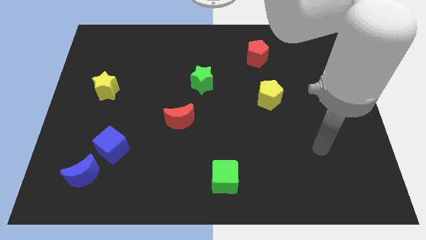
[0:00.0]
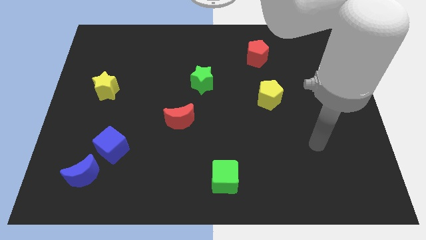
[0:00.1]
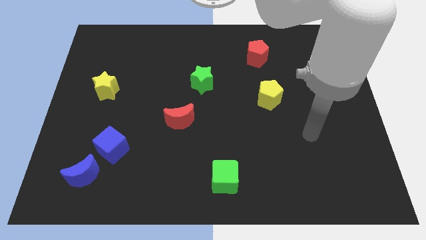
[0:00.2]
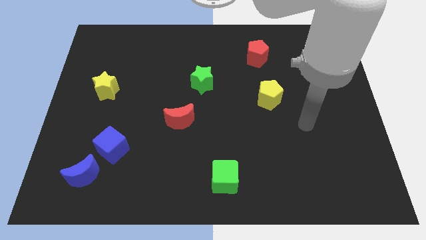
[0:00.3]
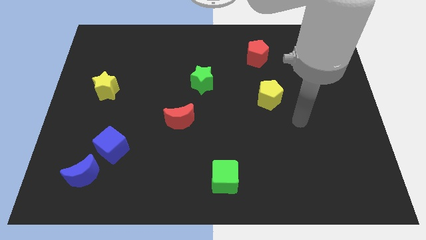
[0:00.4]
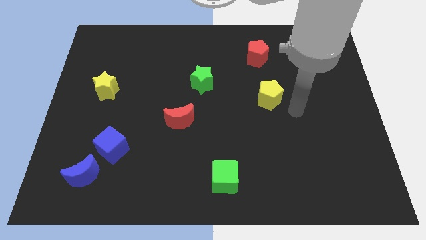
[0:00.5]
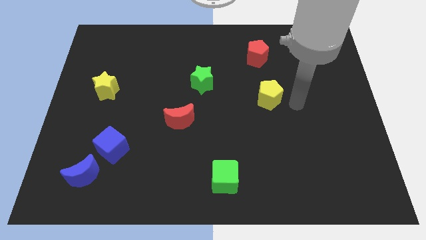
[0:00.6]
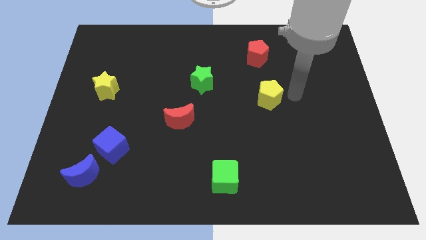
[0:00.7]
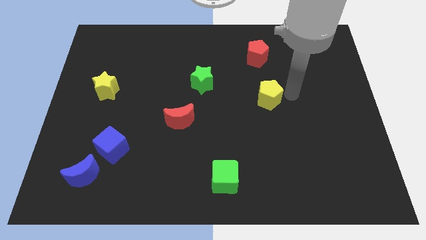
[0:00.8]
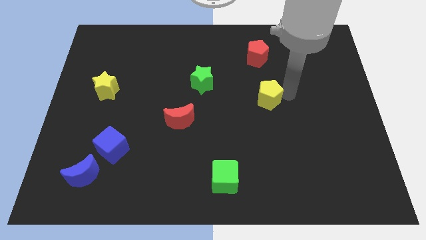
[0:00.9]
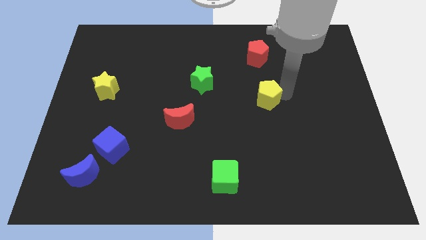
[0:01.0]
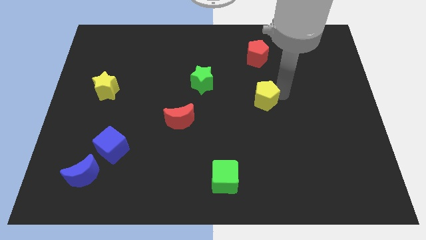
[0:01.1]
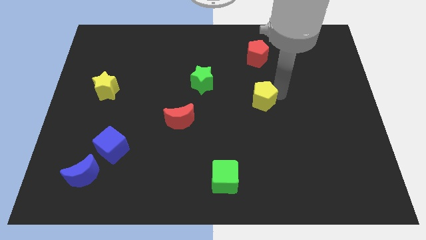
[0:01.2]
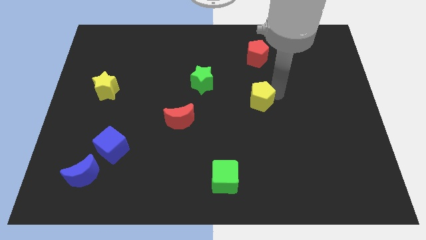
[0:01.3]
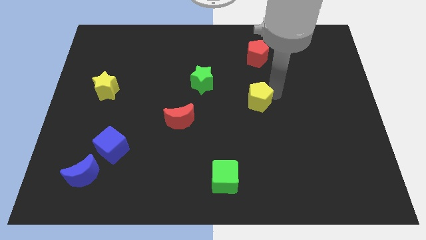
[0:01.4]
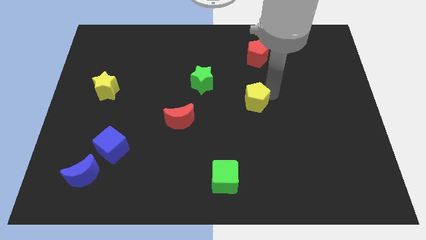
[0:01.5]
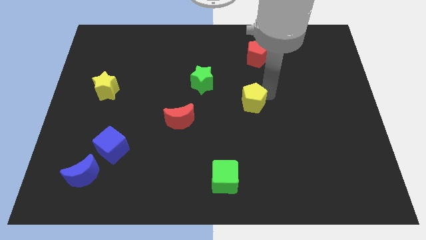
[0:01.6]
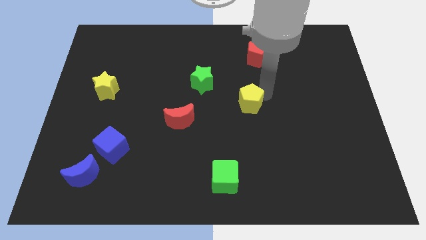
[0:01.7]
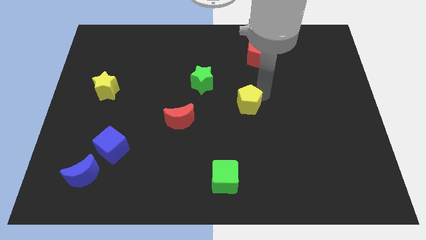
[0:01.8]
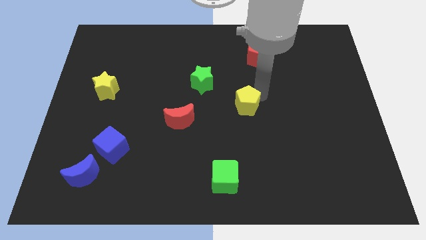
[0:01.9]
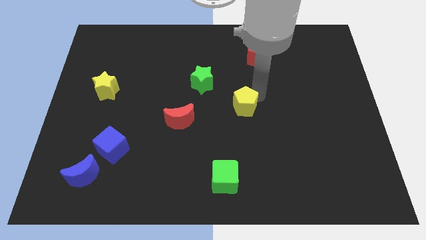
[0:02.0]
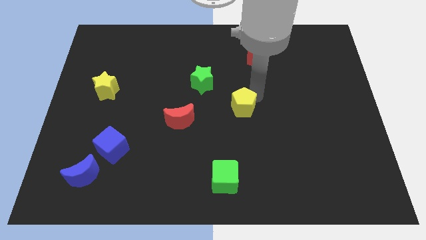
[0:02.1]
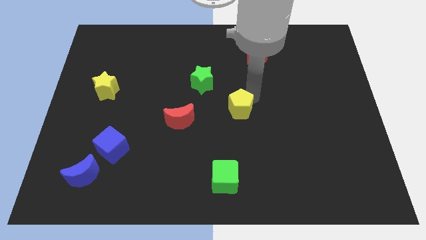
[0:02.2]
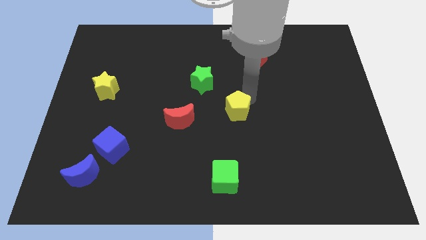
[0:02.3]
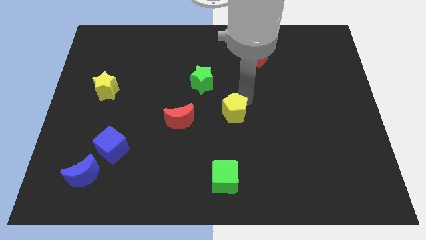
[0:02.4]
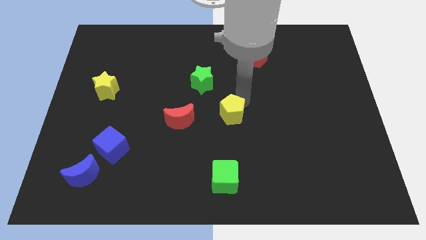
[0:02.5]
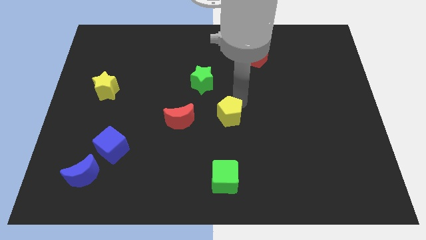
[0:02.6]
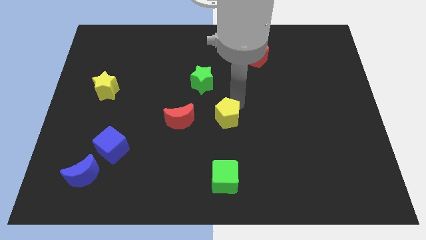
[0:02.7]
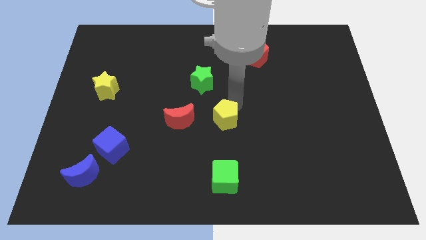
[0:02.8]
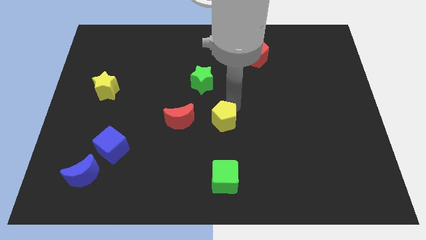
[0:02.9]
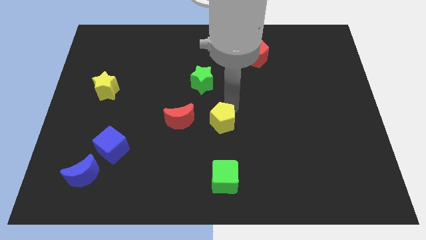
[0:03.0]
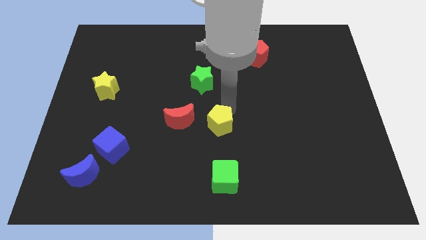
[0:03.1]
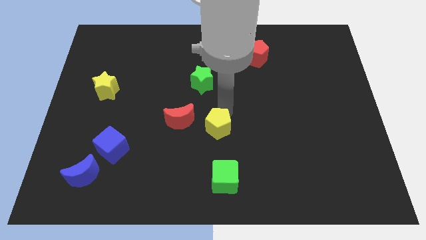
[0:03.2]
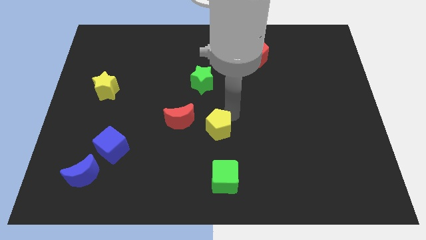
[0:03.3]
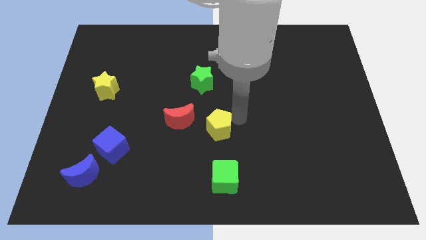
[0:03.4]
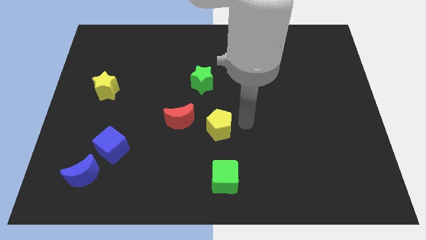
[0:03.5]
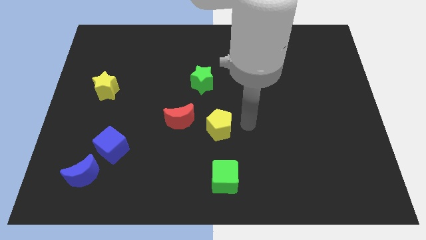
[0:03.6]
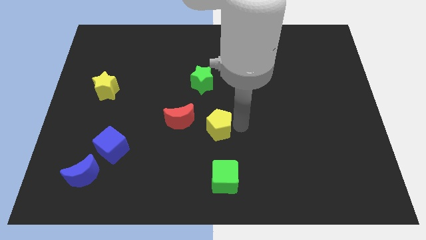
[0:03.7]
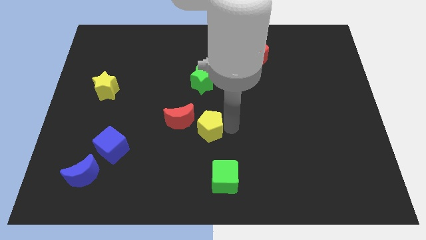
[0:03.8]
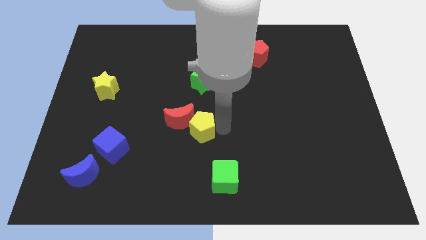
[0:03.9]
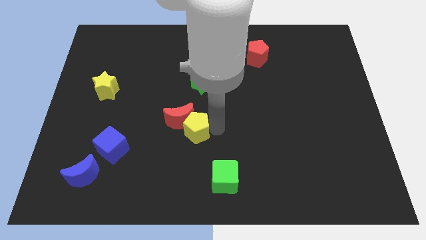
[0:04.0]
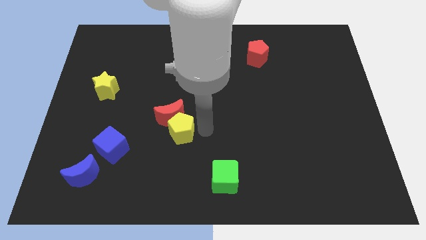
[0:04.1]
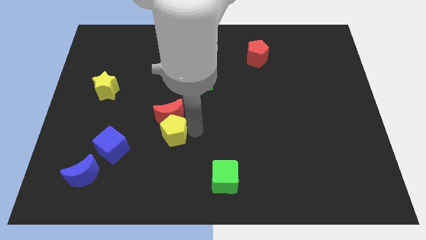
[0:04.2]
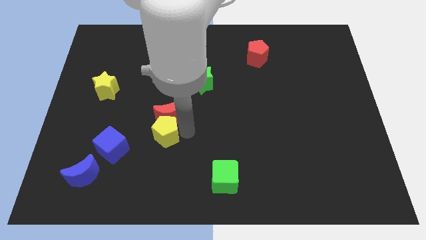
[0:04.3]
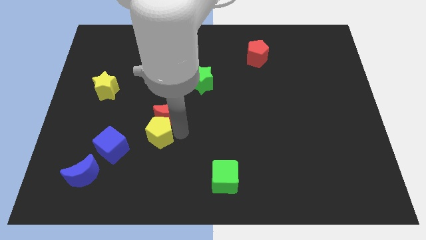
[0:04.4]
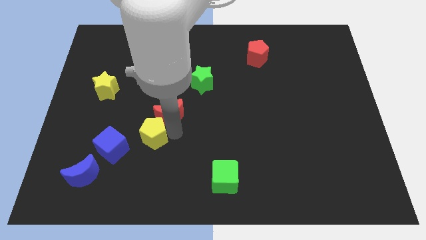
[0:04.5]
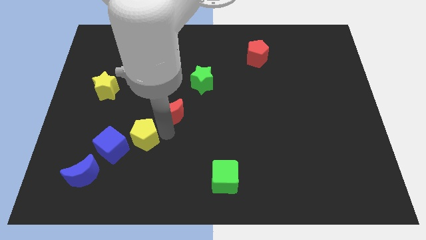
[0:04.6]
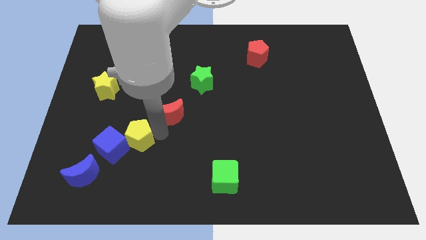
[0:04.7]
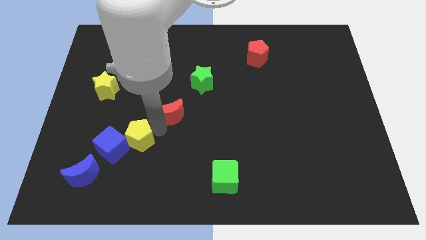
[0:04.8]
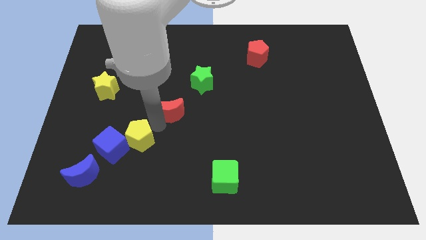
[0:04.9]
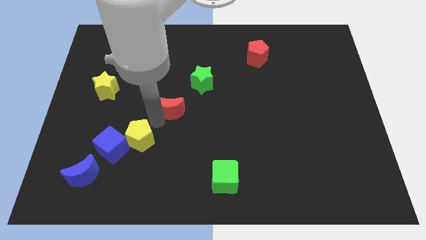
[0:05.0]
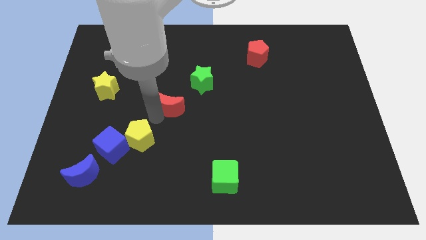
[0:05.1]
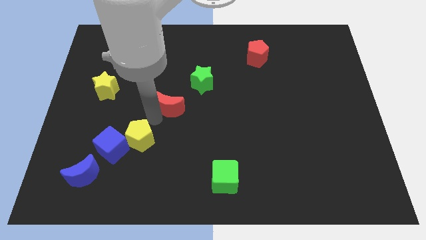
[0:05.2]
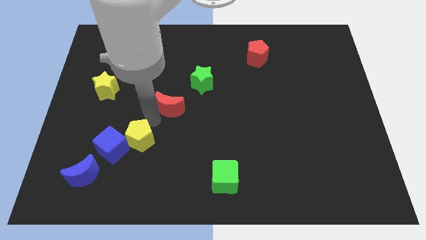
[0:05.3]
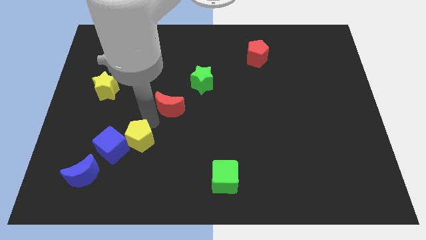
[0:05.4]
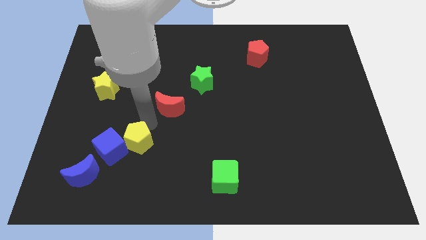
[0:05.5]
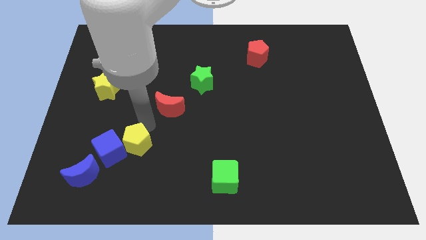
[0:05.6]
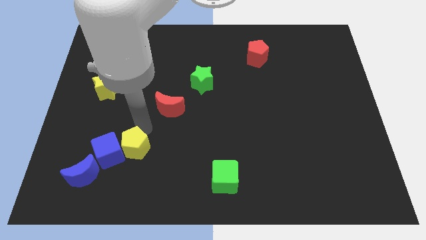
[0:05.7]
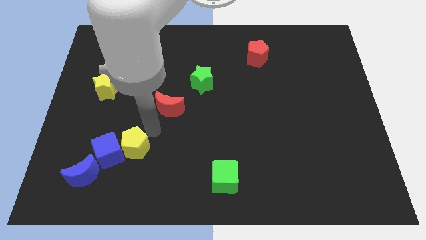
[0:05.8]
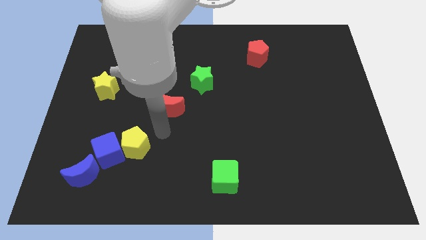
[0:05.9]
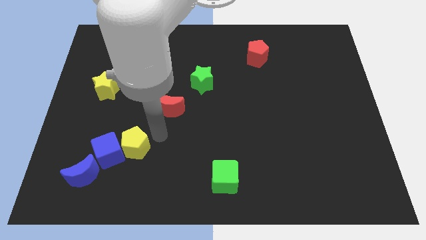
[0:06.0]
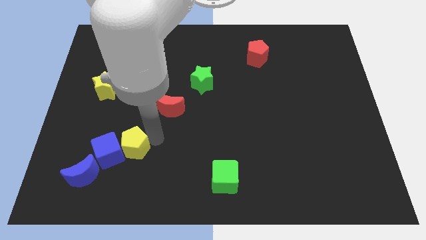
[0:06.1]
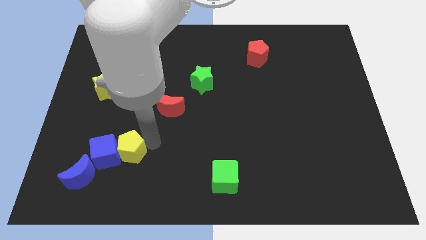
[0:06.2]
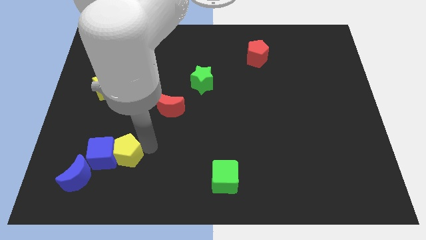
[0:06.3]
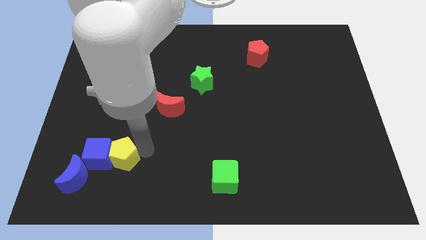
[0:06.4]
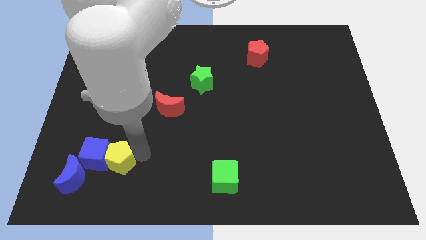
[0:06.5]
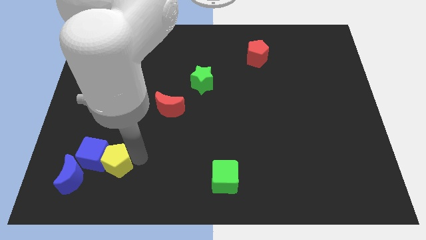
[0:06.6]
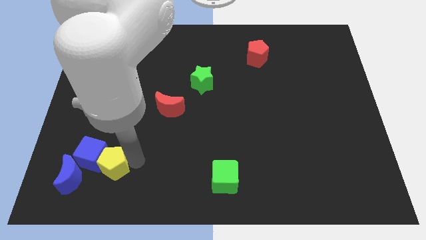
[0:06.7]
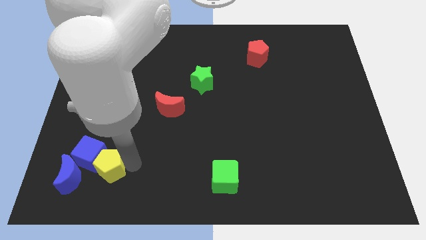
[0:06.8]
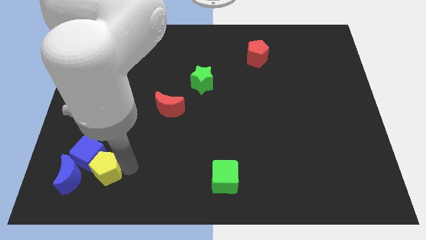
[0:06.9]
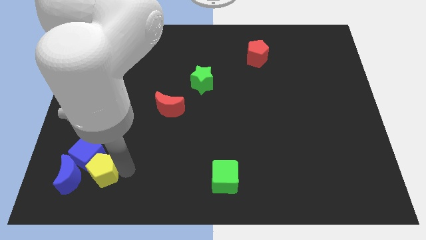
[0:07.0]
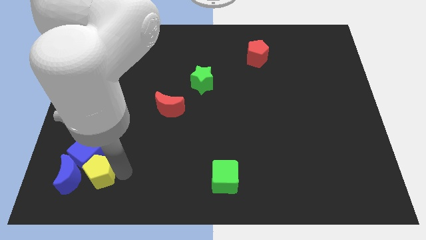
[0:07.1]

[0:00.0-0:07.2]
push the yellow pentagon to the blue moon

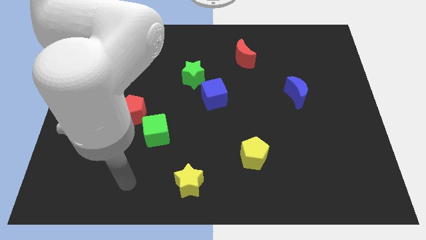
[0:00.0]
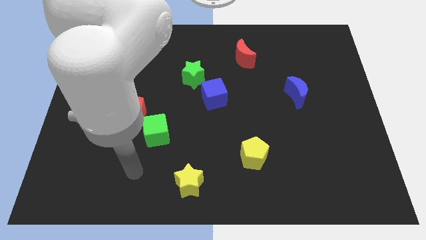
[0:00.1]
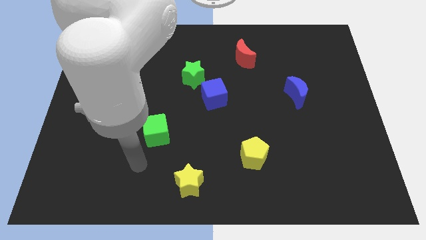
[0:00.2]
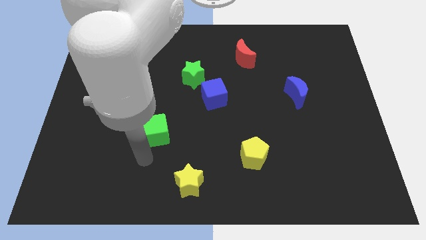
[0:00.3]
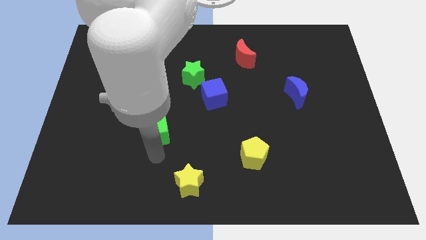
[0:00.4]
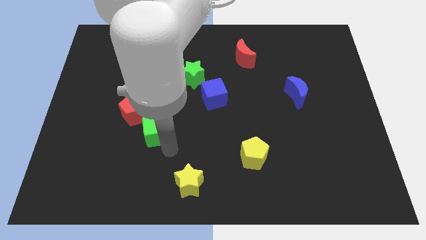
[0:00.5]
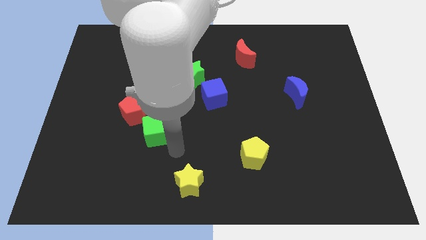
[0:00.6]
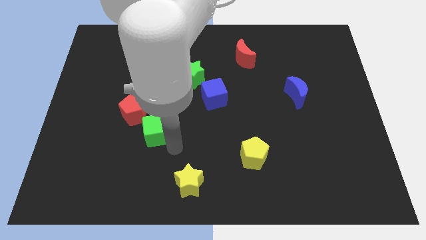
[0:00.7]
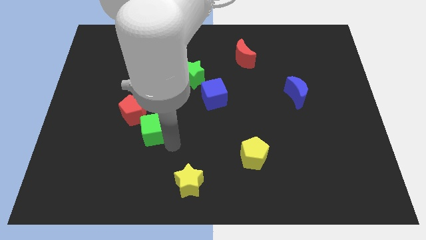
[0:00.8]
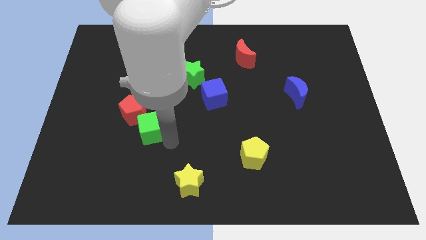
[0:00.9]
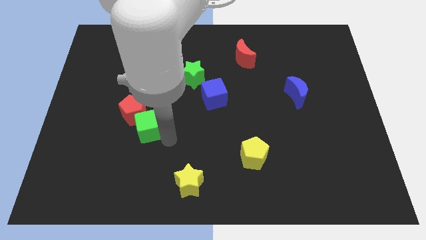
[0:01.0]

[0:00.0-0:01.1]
move the green cube towards the red pentagon
